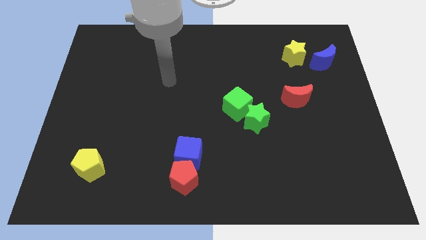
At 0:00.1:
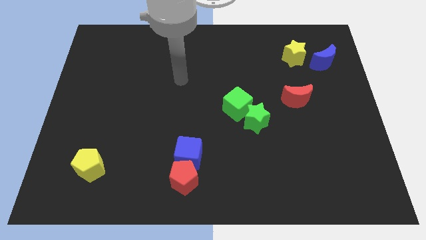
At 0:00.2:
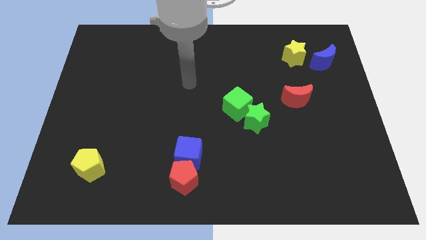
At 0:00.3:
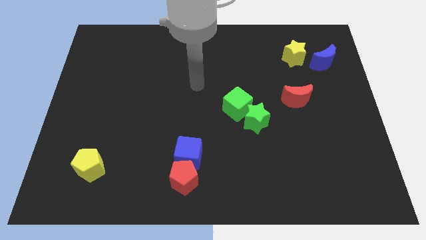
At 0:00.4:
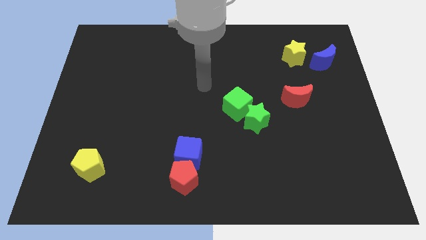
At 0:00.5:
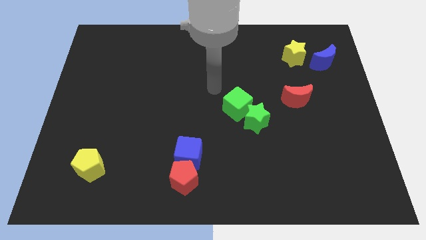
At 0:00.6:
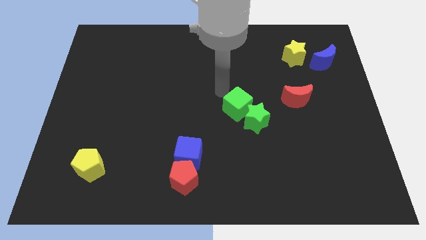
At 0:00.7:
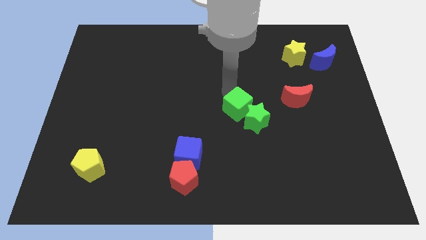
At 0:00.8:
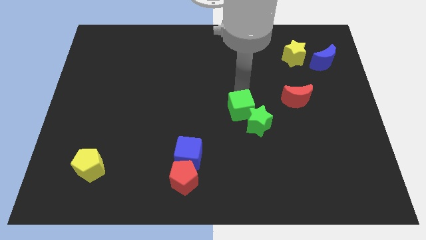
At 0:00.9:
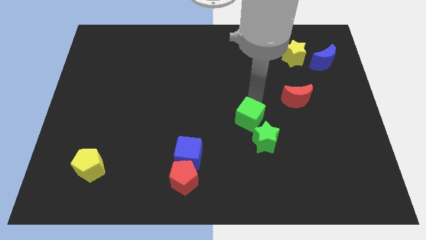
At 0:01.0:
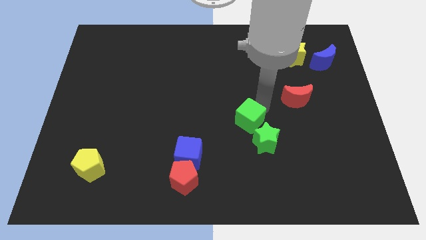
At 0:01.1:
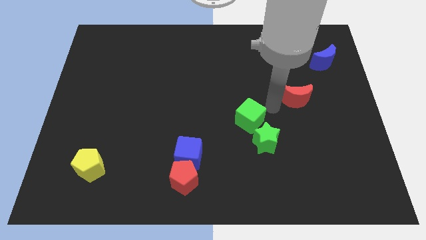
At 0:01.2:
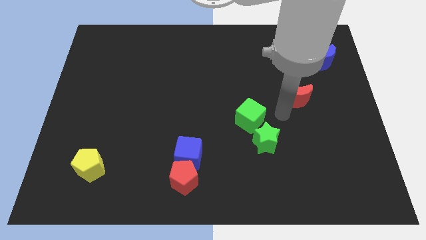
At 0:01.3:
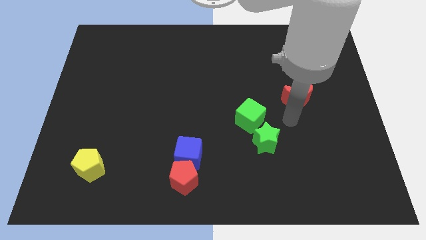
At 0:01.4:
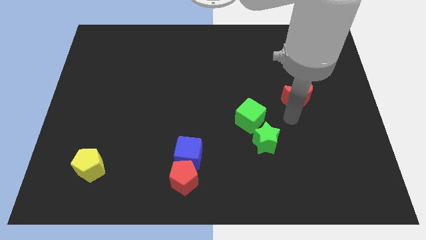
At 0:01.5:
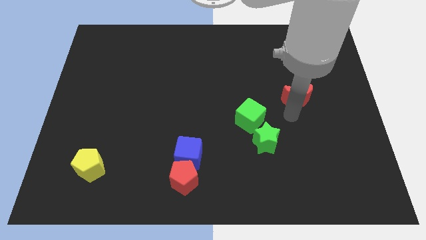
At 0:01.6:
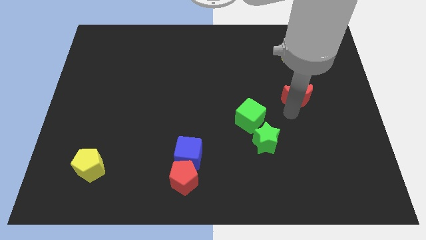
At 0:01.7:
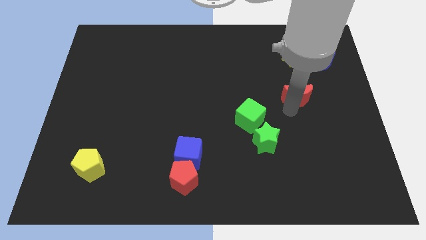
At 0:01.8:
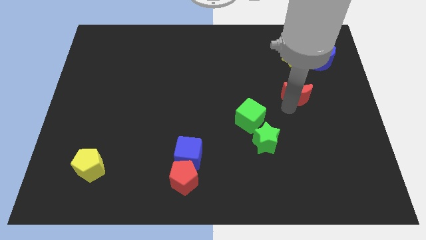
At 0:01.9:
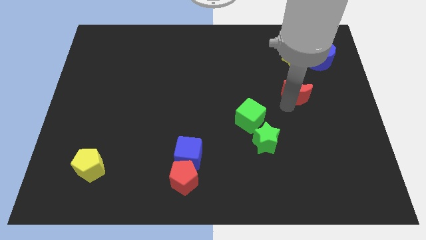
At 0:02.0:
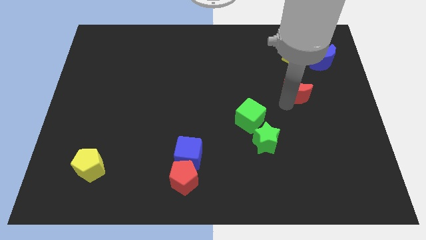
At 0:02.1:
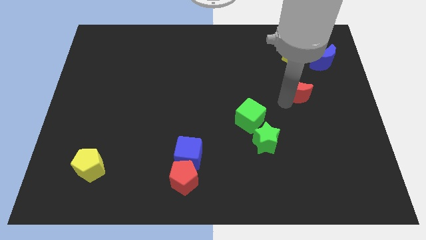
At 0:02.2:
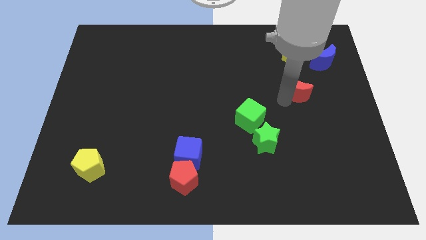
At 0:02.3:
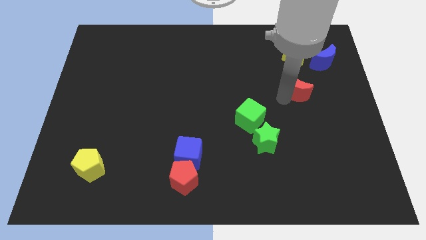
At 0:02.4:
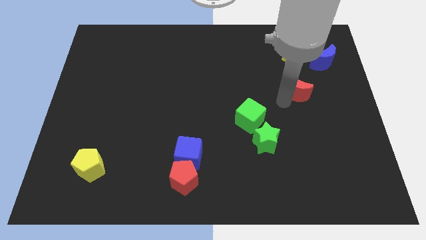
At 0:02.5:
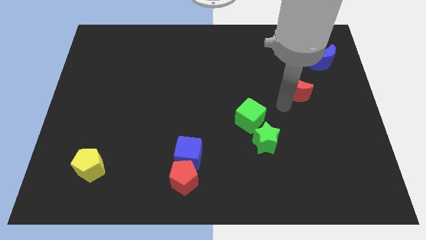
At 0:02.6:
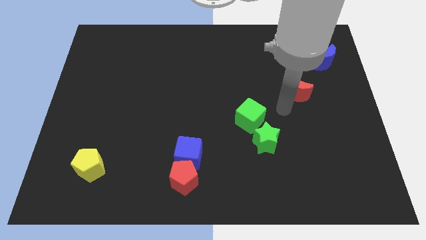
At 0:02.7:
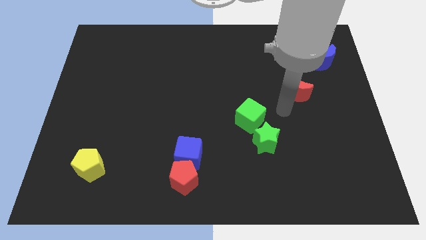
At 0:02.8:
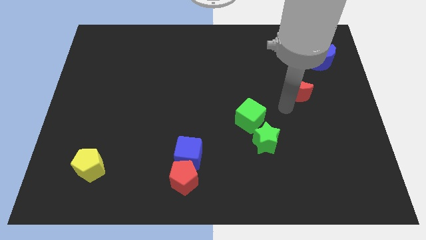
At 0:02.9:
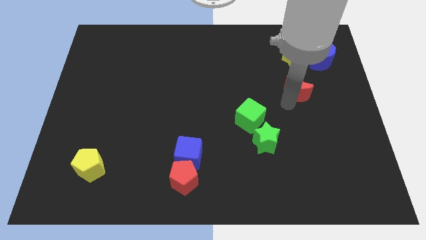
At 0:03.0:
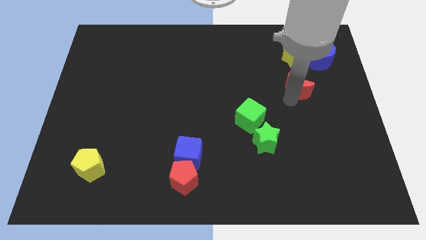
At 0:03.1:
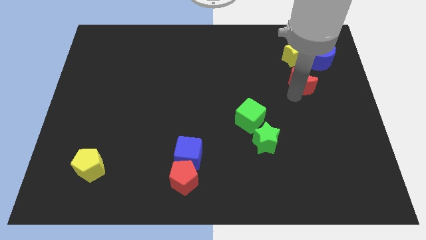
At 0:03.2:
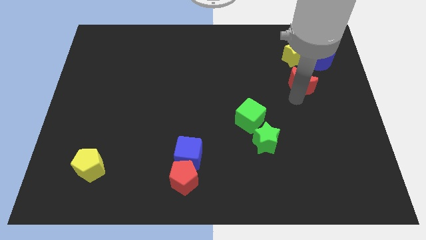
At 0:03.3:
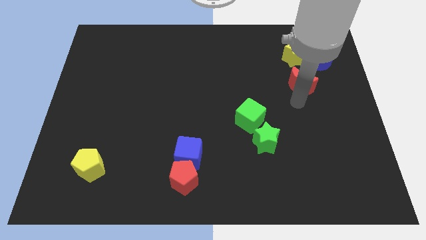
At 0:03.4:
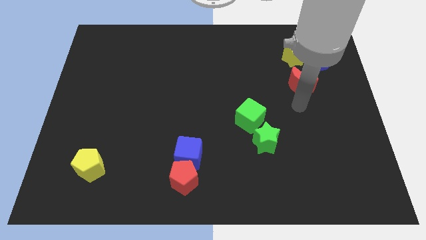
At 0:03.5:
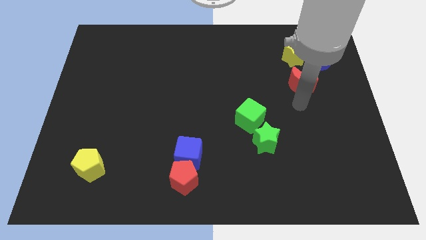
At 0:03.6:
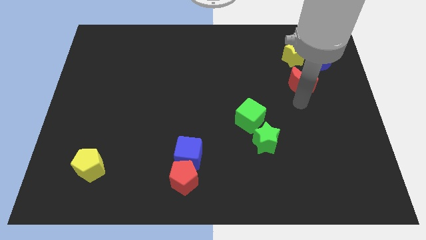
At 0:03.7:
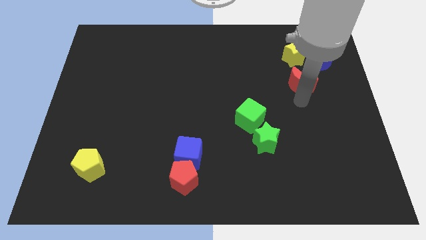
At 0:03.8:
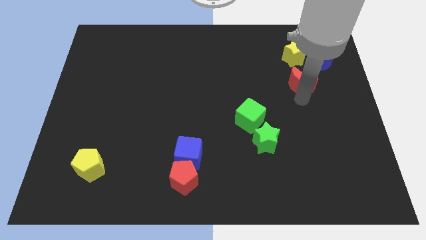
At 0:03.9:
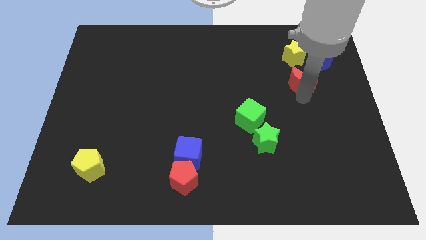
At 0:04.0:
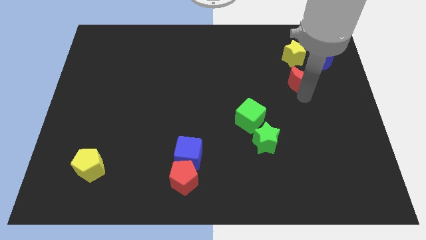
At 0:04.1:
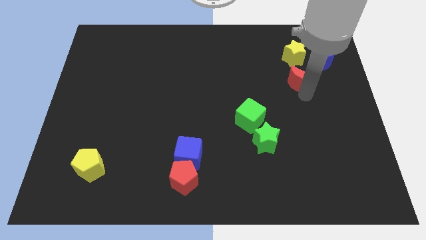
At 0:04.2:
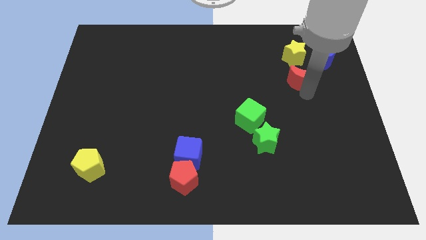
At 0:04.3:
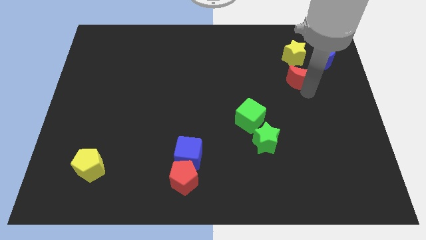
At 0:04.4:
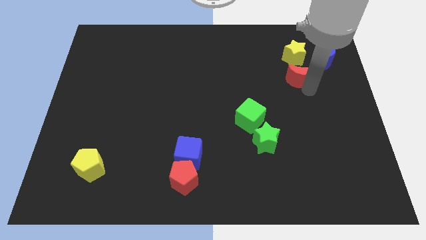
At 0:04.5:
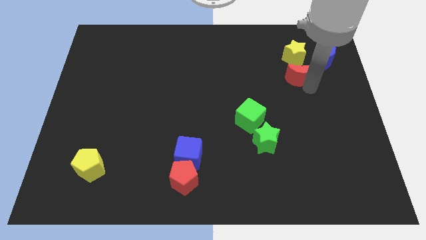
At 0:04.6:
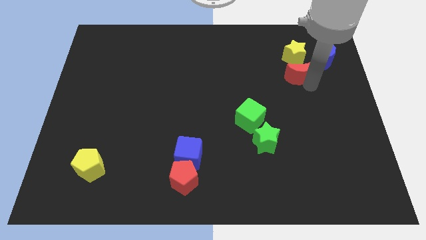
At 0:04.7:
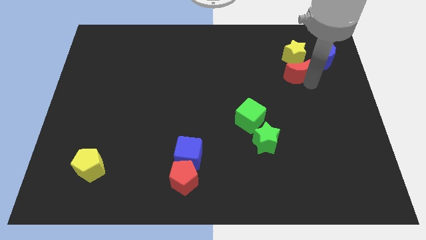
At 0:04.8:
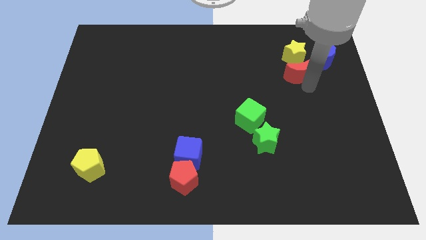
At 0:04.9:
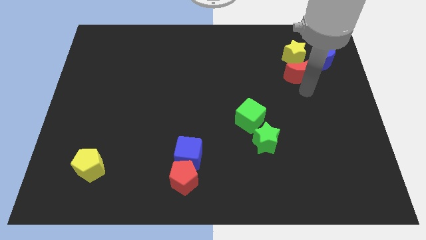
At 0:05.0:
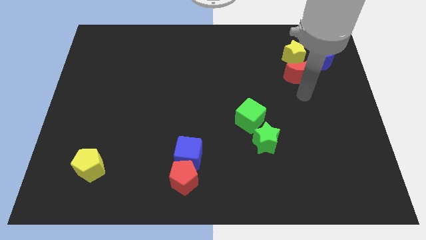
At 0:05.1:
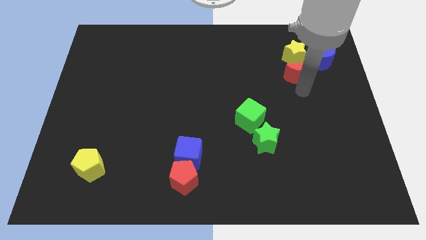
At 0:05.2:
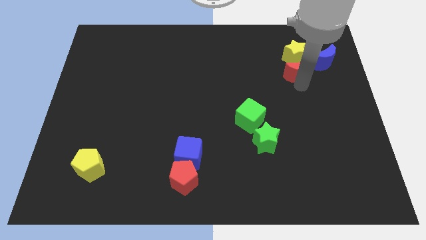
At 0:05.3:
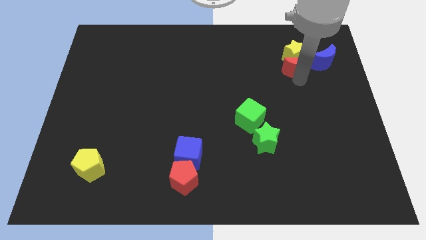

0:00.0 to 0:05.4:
slide the red moon close to the yellow star

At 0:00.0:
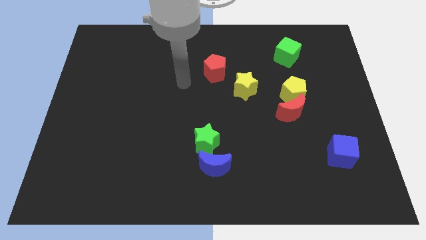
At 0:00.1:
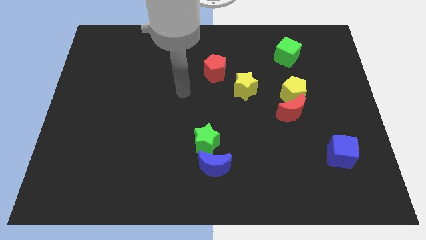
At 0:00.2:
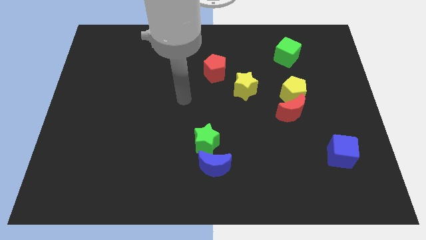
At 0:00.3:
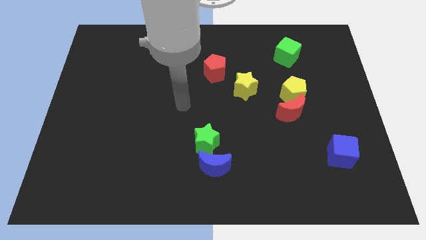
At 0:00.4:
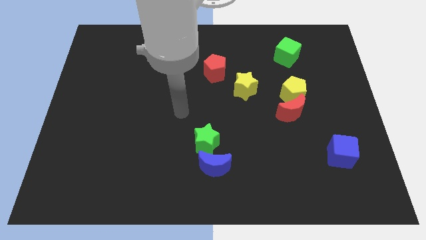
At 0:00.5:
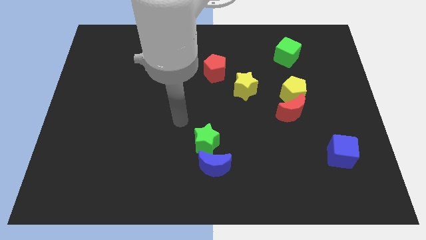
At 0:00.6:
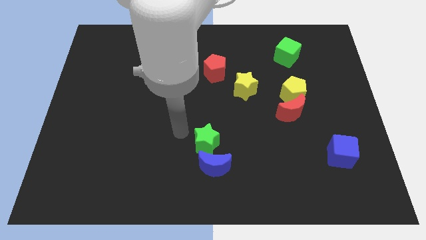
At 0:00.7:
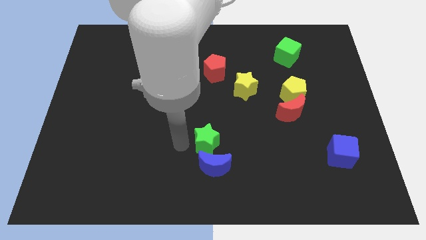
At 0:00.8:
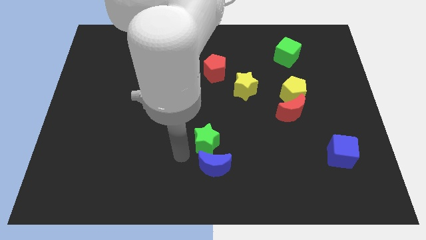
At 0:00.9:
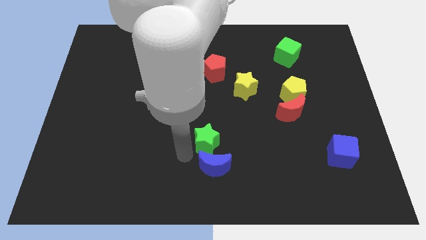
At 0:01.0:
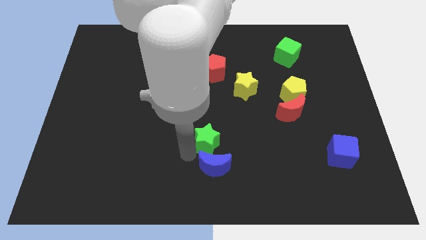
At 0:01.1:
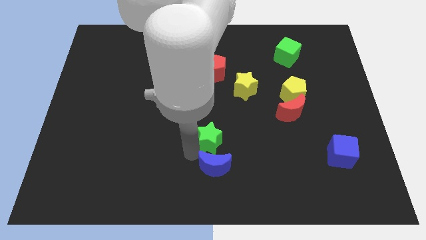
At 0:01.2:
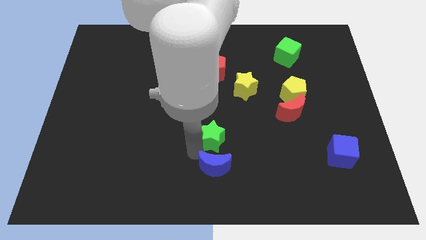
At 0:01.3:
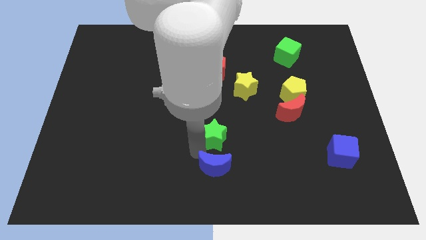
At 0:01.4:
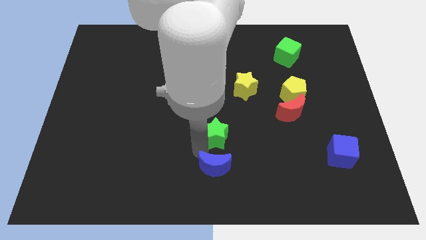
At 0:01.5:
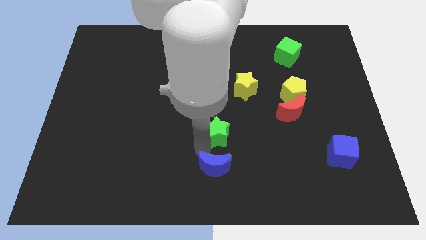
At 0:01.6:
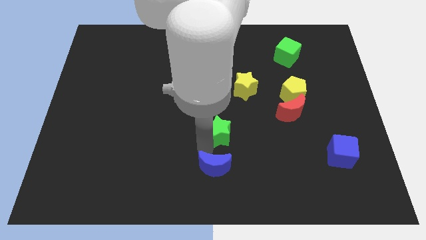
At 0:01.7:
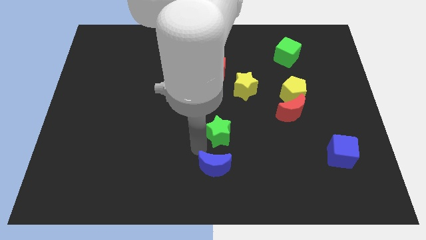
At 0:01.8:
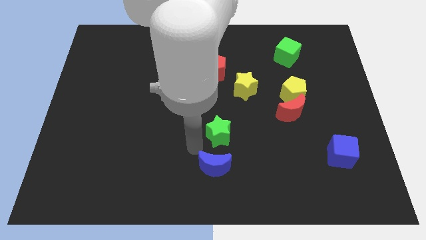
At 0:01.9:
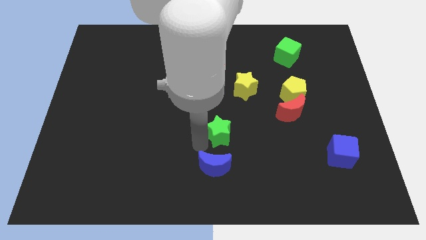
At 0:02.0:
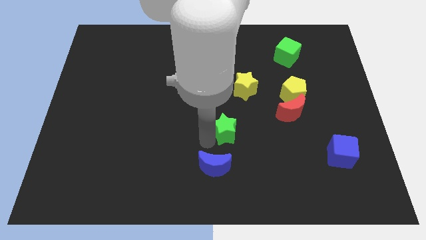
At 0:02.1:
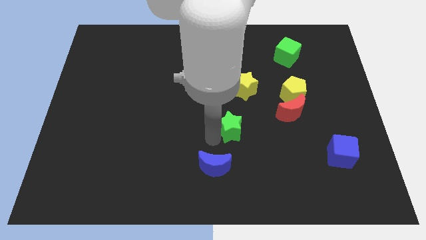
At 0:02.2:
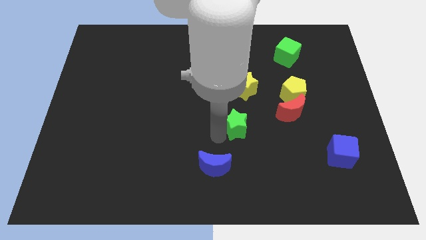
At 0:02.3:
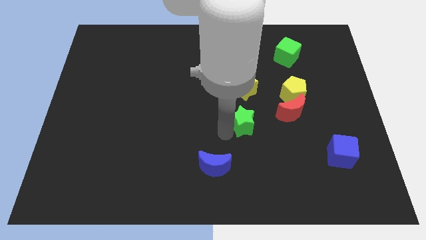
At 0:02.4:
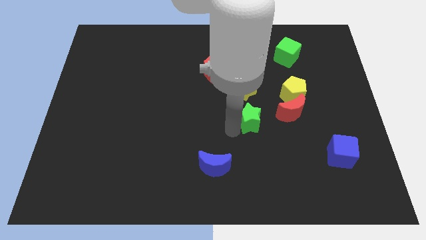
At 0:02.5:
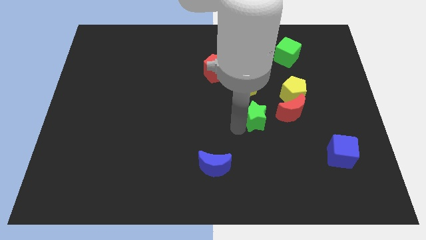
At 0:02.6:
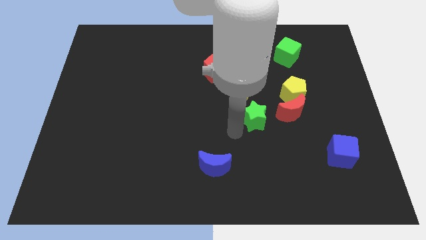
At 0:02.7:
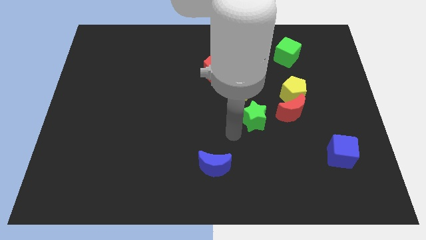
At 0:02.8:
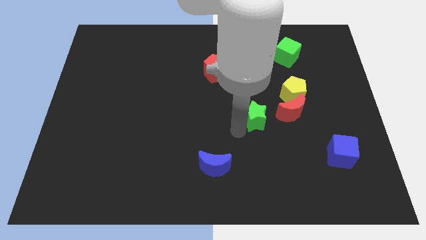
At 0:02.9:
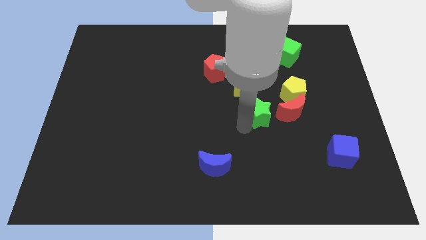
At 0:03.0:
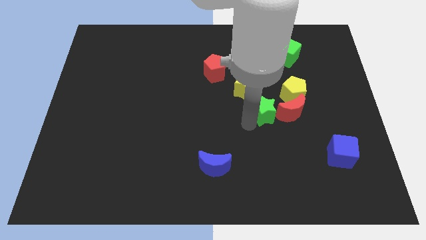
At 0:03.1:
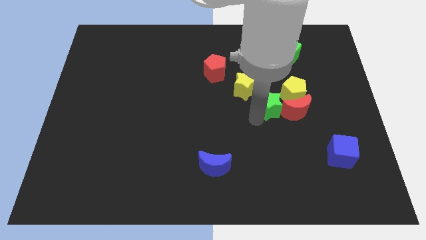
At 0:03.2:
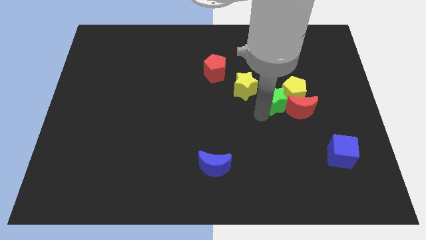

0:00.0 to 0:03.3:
move the green star close to the yellow pentagon
